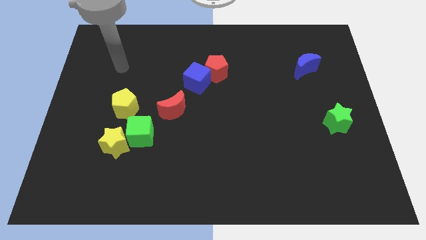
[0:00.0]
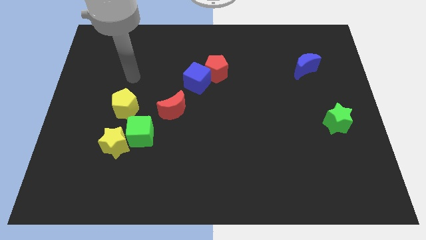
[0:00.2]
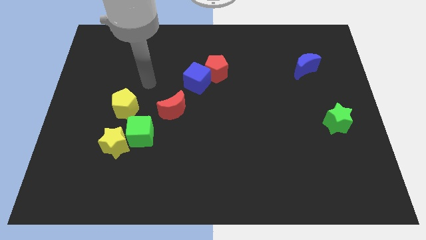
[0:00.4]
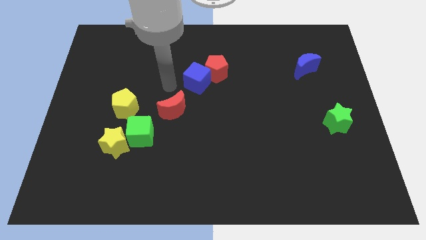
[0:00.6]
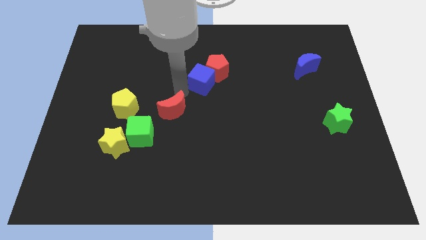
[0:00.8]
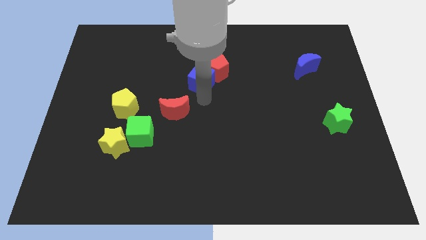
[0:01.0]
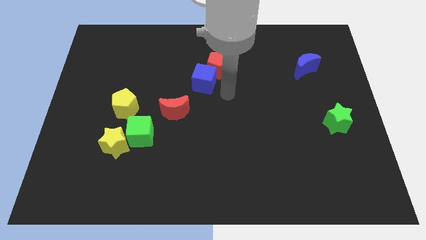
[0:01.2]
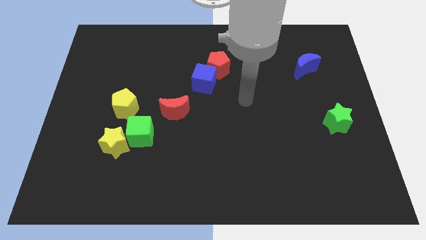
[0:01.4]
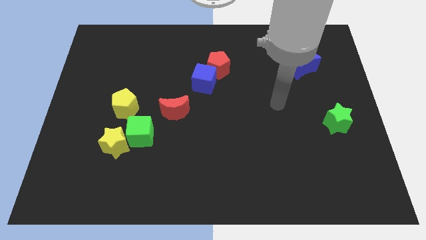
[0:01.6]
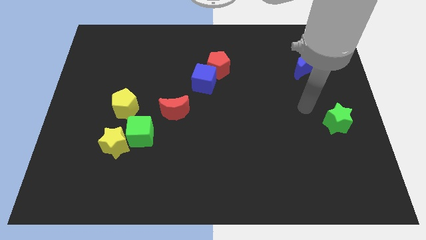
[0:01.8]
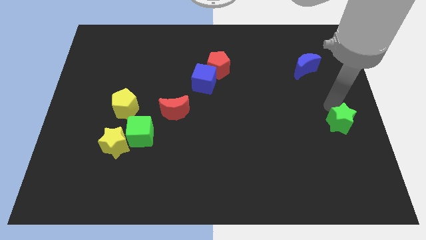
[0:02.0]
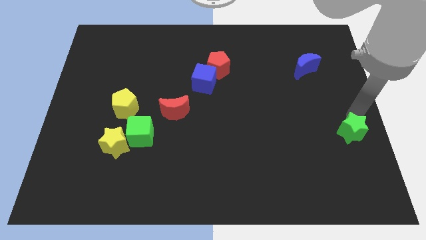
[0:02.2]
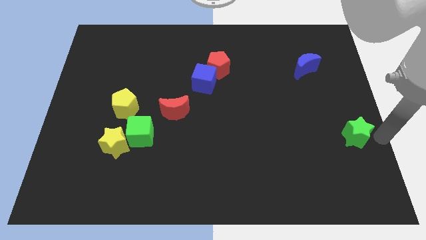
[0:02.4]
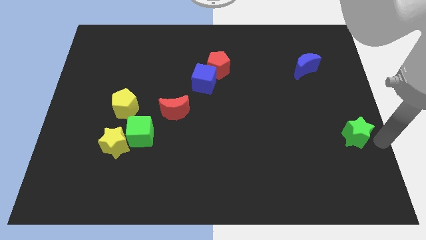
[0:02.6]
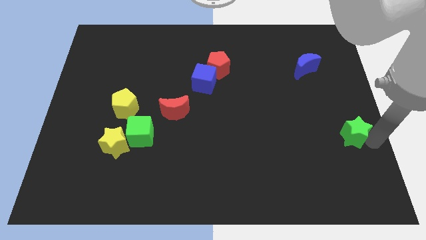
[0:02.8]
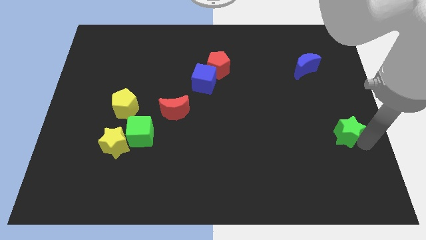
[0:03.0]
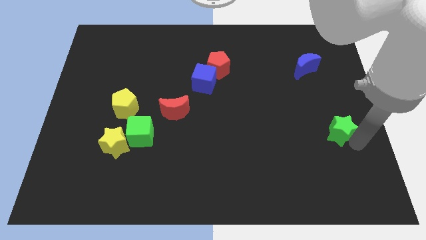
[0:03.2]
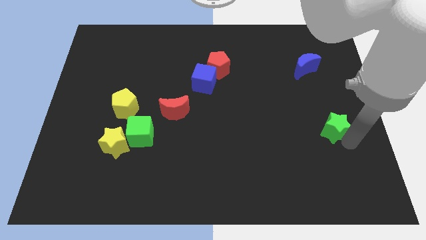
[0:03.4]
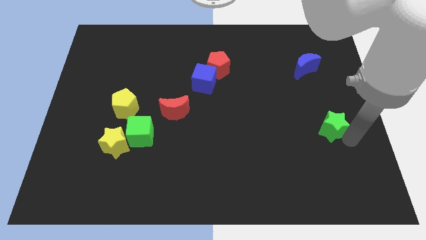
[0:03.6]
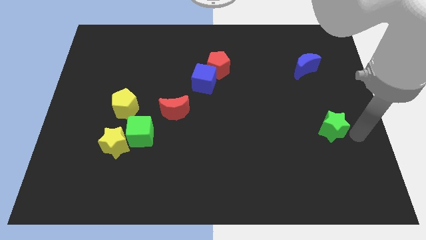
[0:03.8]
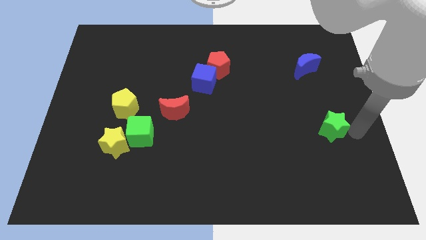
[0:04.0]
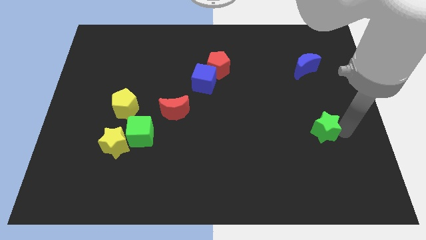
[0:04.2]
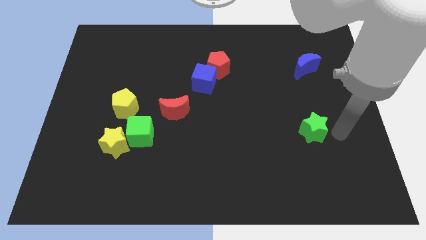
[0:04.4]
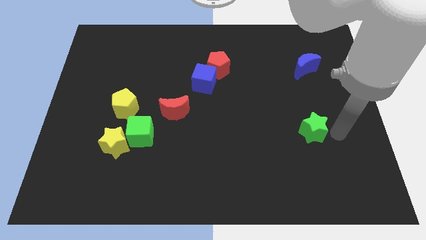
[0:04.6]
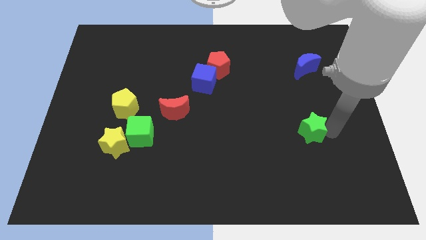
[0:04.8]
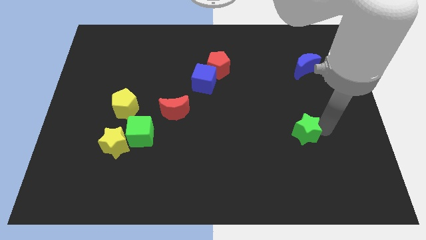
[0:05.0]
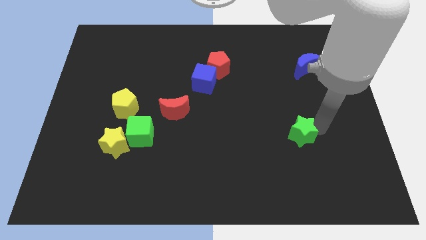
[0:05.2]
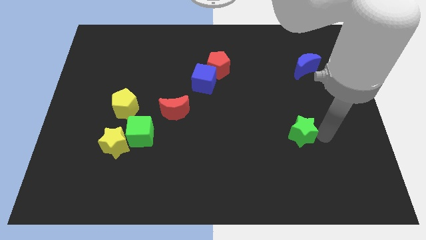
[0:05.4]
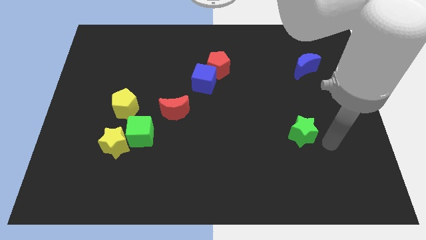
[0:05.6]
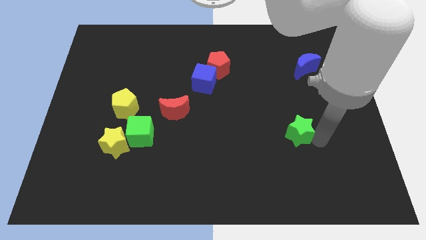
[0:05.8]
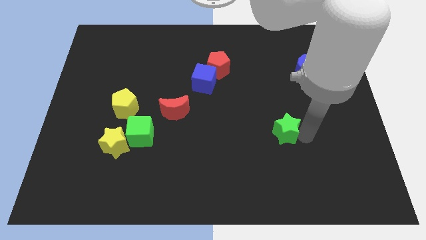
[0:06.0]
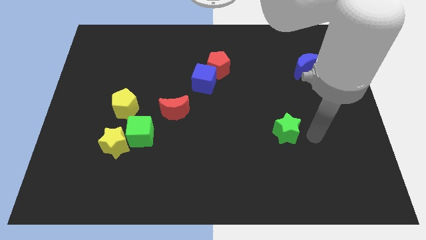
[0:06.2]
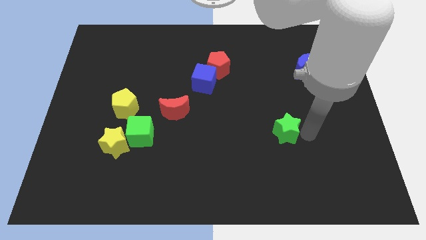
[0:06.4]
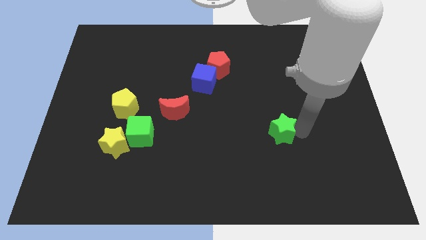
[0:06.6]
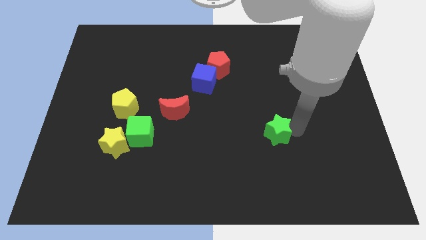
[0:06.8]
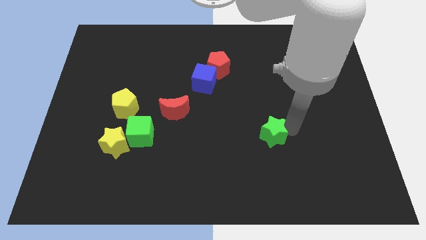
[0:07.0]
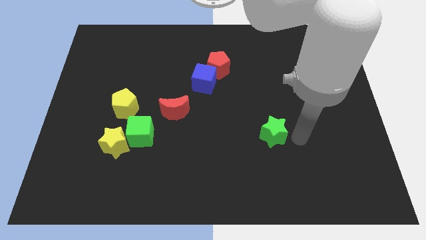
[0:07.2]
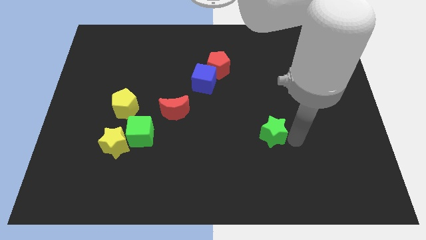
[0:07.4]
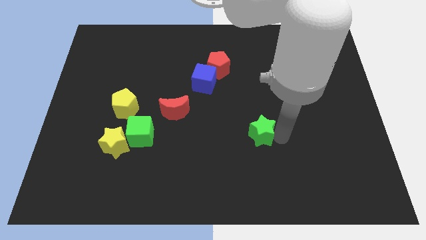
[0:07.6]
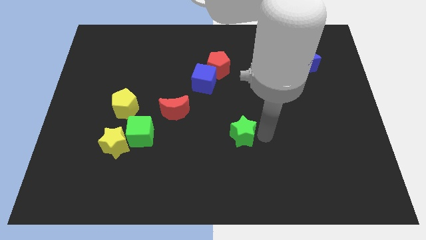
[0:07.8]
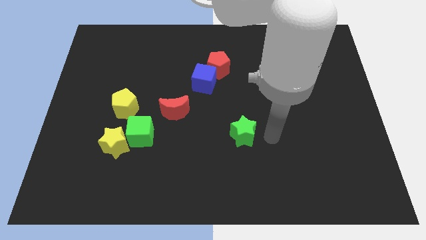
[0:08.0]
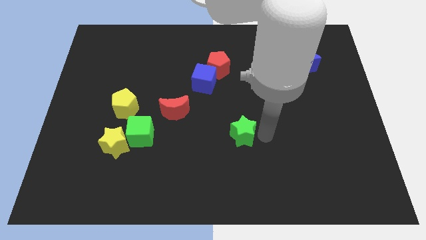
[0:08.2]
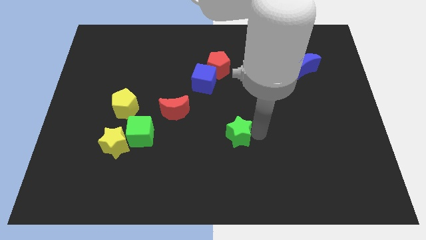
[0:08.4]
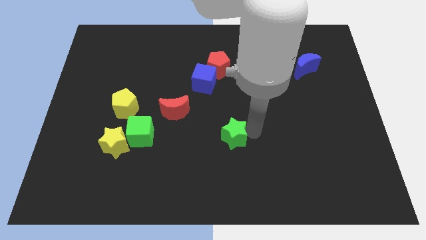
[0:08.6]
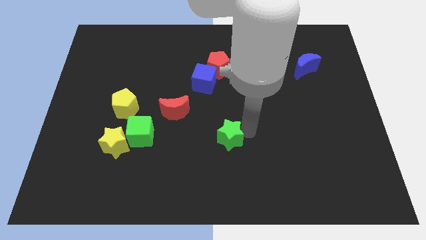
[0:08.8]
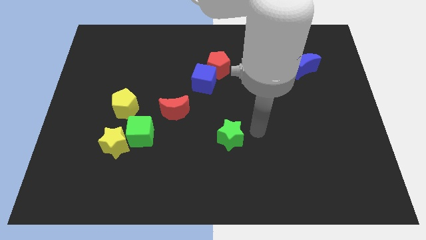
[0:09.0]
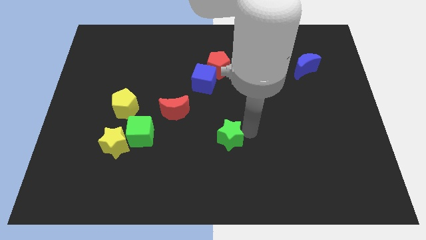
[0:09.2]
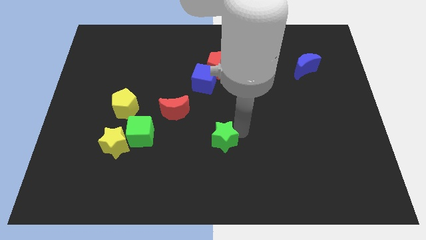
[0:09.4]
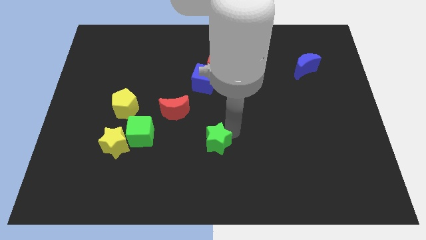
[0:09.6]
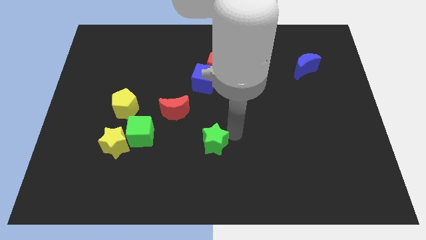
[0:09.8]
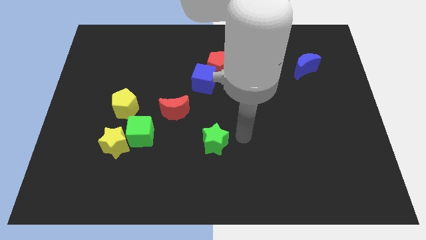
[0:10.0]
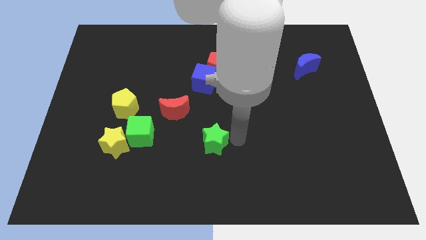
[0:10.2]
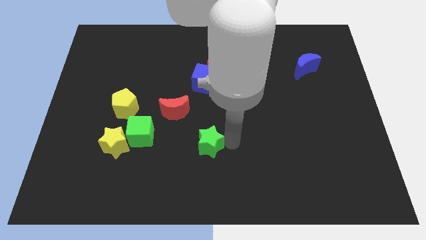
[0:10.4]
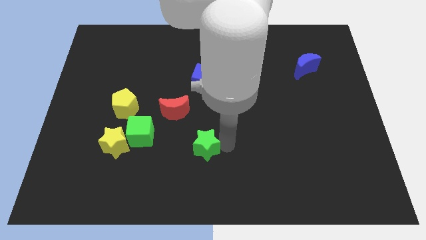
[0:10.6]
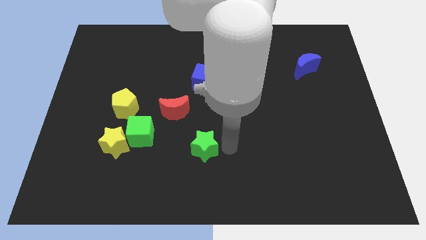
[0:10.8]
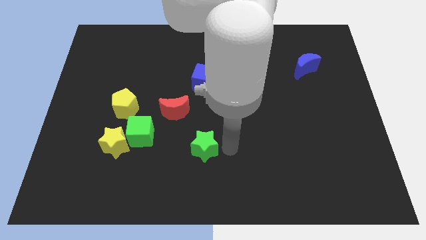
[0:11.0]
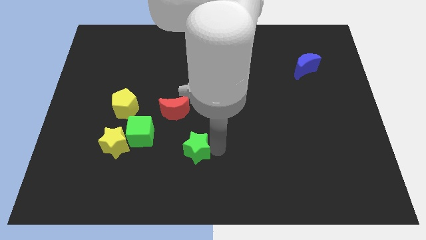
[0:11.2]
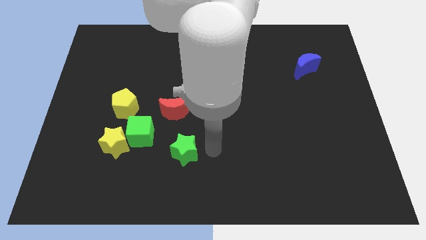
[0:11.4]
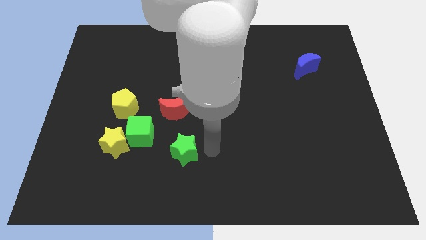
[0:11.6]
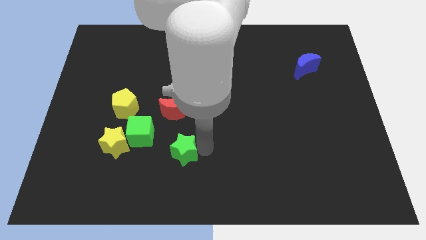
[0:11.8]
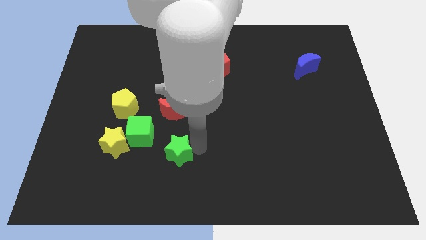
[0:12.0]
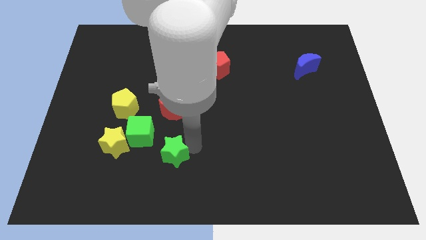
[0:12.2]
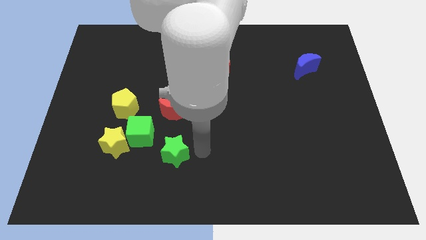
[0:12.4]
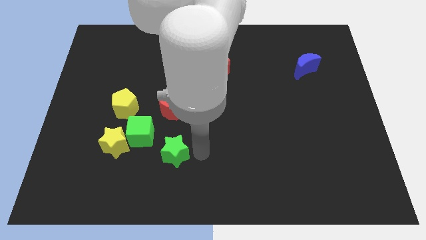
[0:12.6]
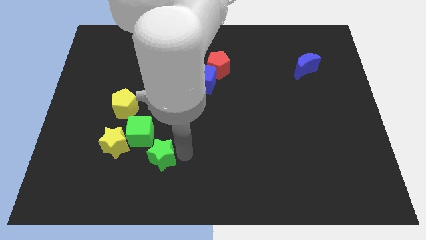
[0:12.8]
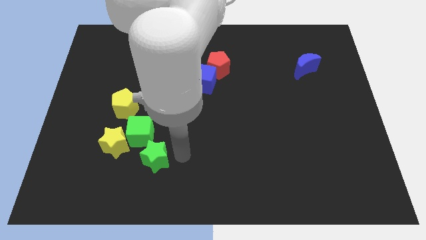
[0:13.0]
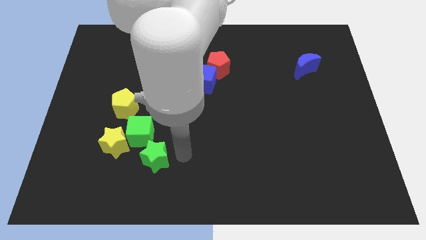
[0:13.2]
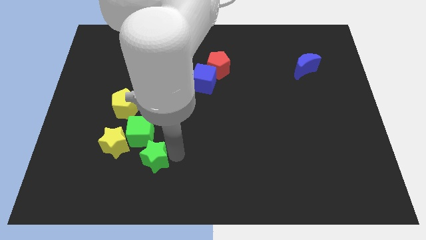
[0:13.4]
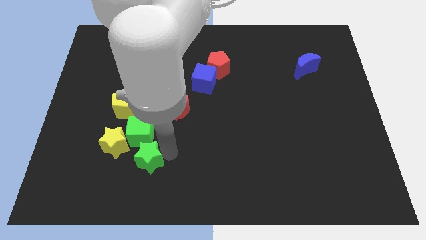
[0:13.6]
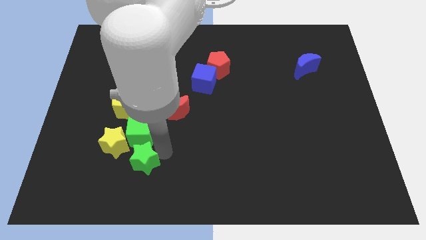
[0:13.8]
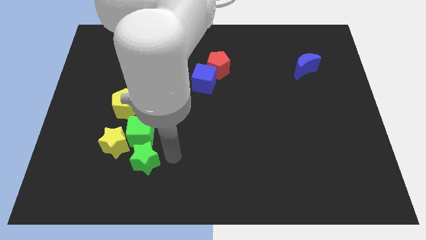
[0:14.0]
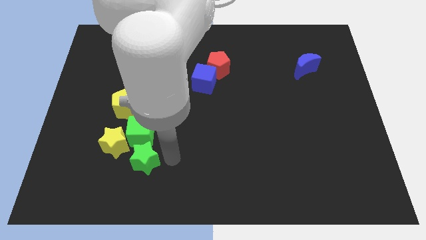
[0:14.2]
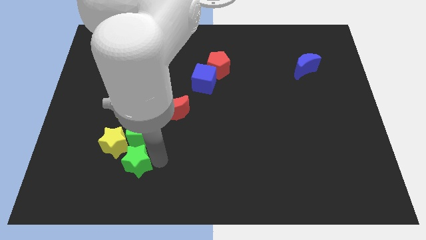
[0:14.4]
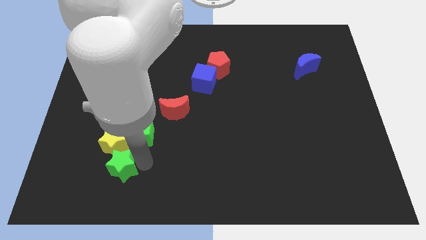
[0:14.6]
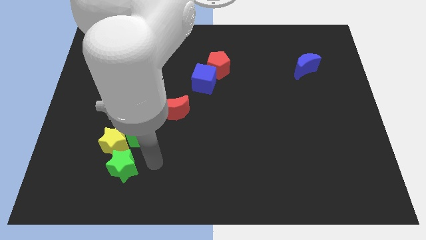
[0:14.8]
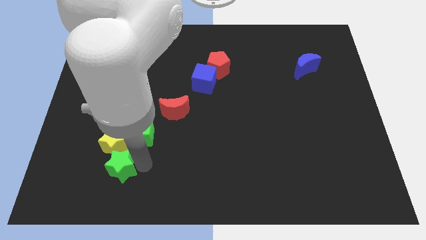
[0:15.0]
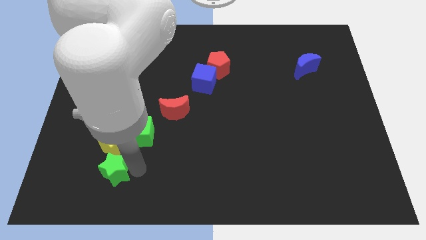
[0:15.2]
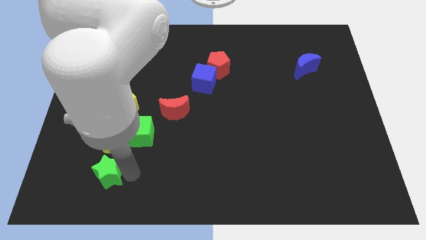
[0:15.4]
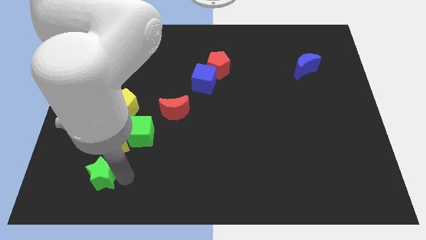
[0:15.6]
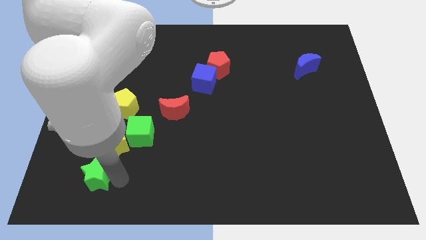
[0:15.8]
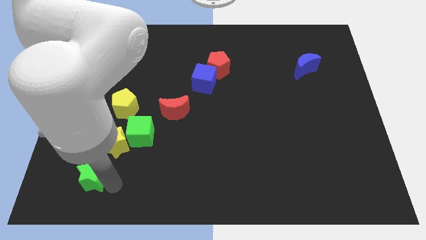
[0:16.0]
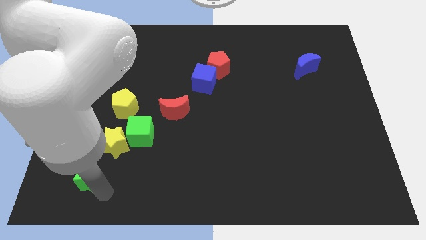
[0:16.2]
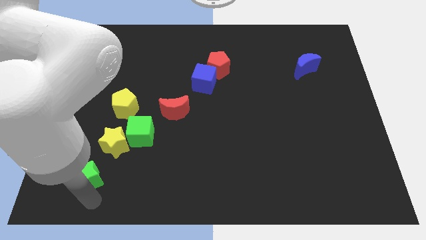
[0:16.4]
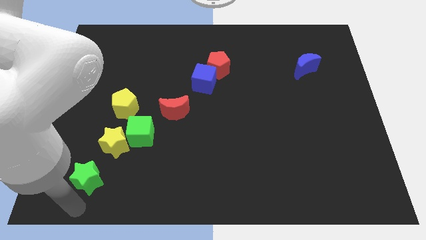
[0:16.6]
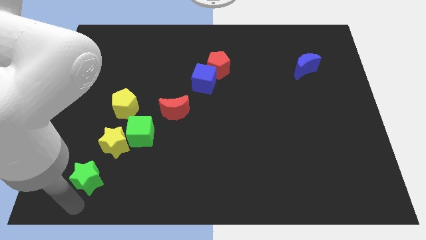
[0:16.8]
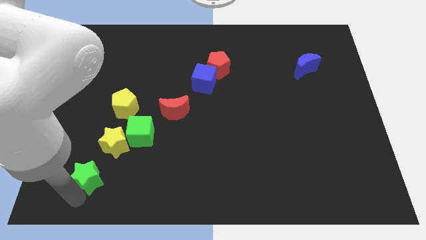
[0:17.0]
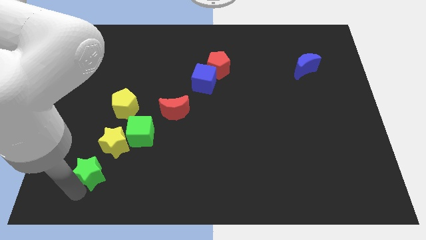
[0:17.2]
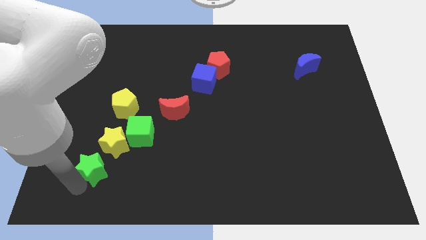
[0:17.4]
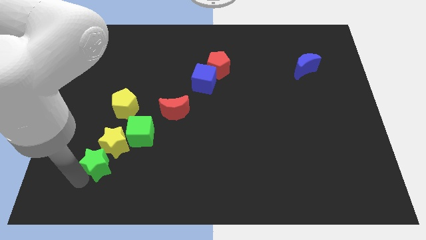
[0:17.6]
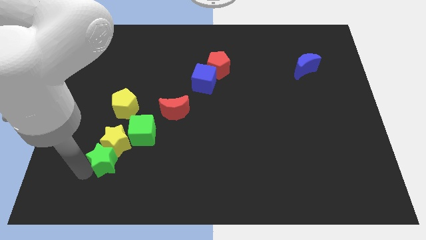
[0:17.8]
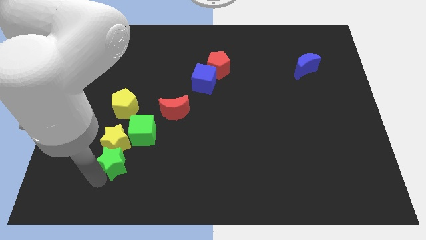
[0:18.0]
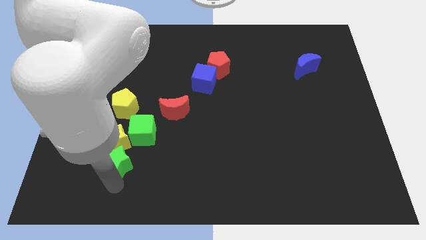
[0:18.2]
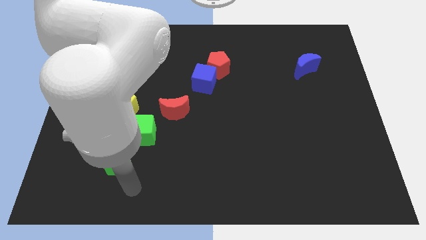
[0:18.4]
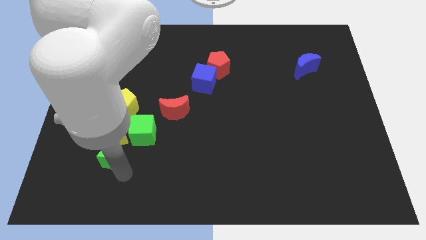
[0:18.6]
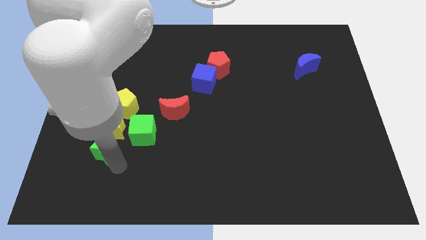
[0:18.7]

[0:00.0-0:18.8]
push the green star left of the green cube
